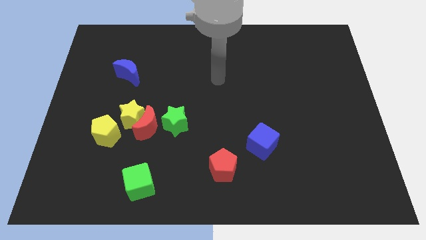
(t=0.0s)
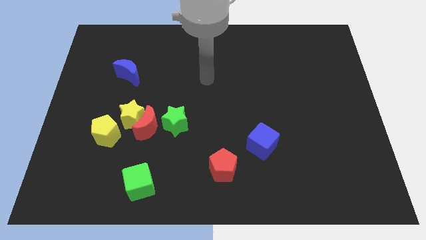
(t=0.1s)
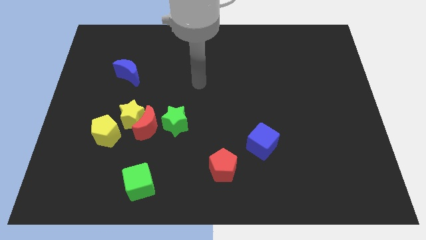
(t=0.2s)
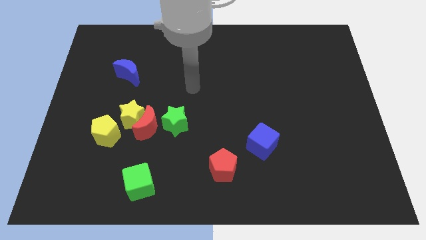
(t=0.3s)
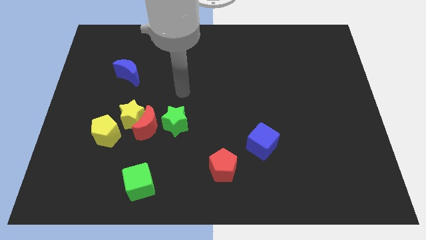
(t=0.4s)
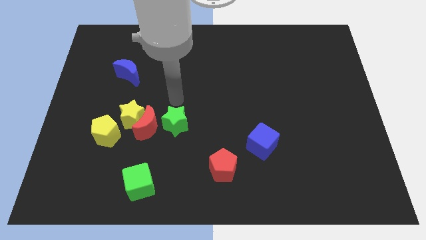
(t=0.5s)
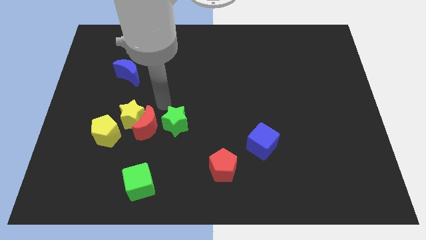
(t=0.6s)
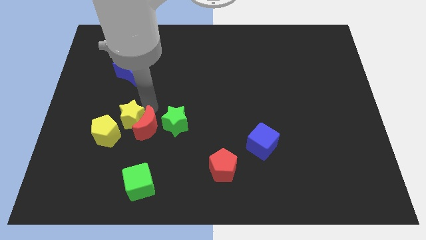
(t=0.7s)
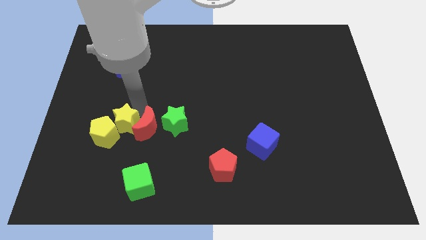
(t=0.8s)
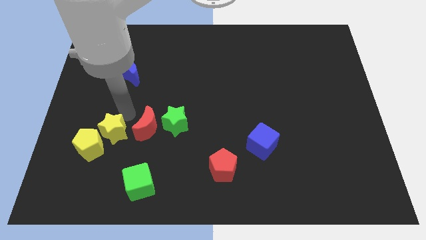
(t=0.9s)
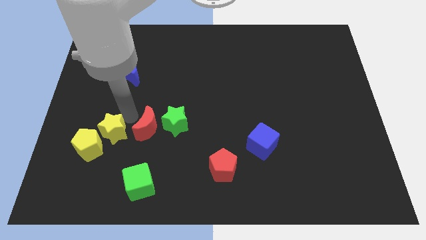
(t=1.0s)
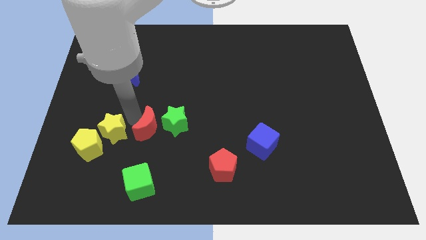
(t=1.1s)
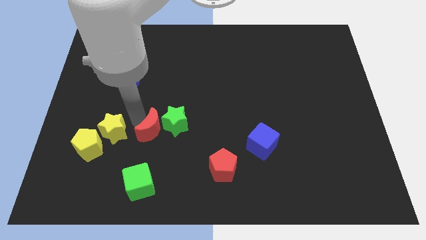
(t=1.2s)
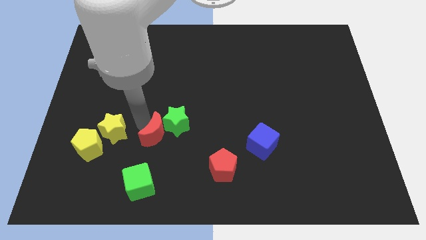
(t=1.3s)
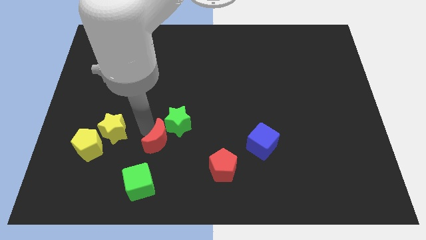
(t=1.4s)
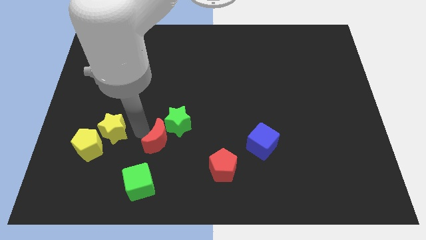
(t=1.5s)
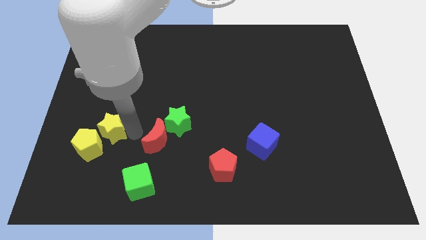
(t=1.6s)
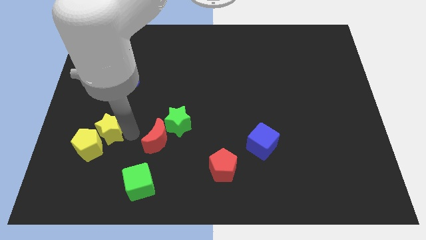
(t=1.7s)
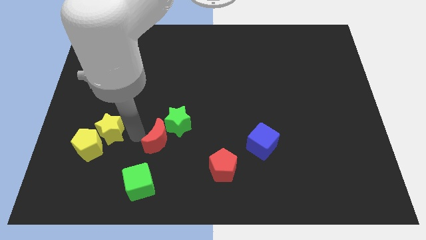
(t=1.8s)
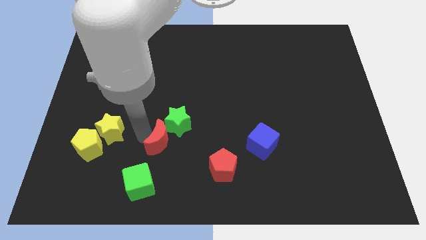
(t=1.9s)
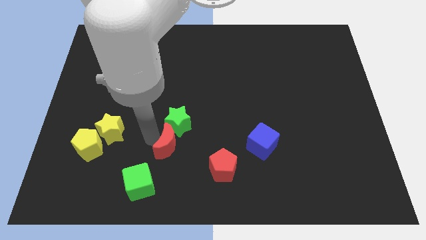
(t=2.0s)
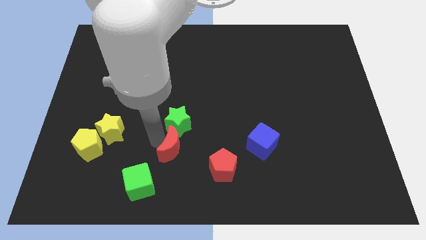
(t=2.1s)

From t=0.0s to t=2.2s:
separate the red moon from the group of blocks

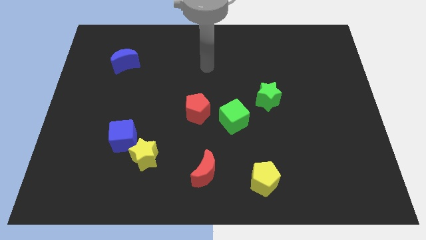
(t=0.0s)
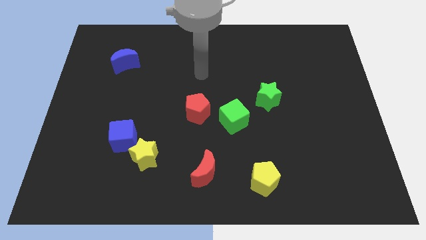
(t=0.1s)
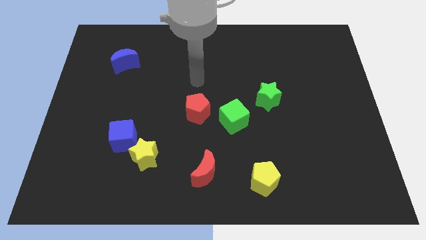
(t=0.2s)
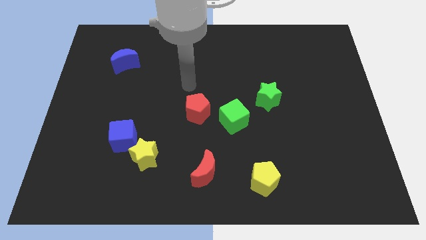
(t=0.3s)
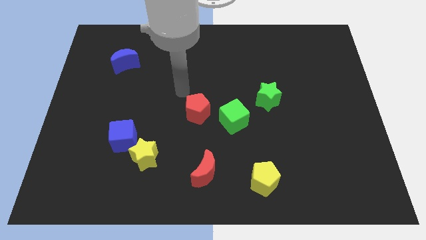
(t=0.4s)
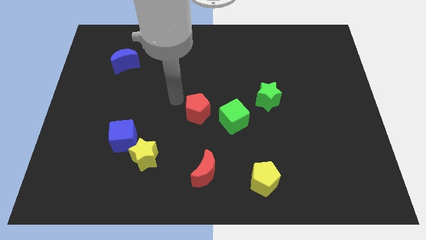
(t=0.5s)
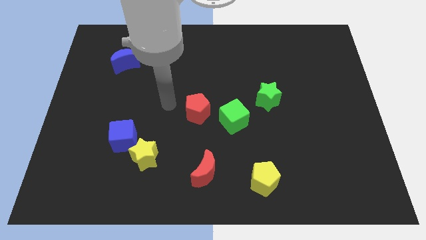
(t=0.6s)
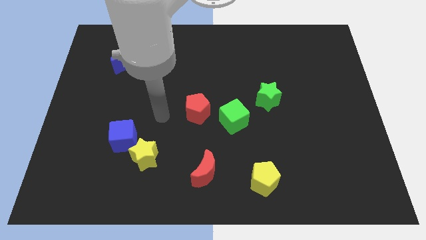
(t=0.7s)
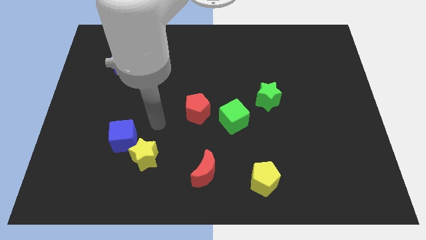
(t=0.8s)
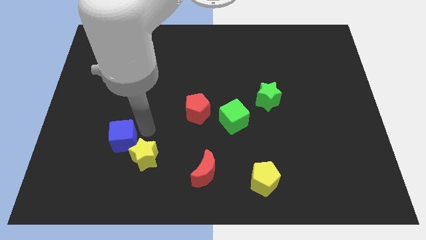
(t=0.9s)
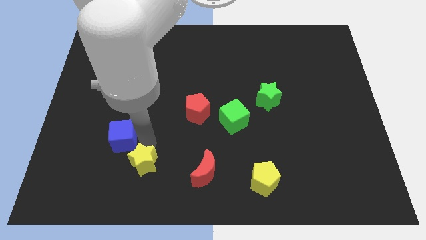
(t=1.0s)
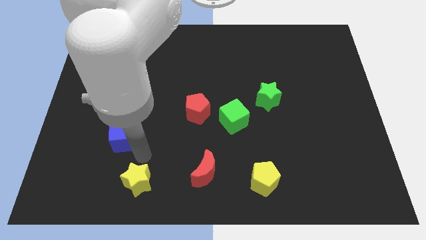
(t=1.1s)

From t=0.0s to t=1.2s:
separate the blue cube from the yellow star

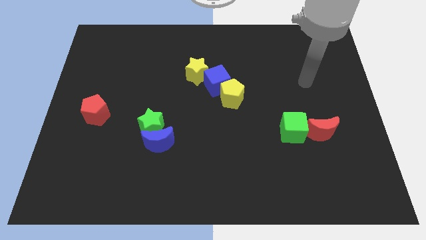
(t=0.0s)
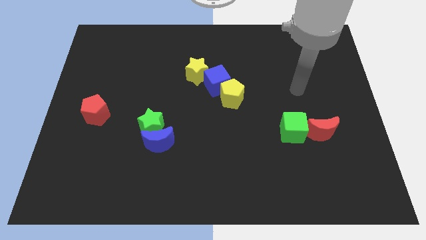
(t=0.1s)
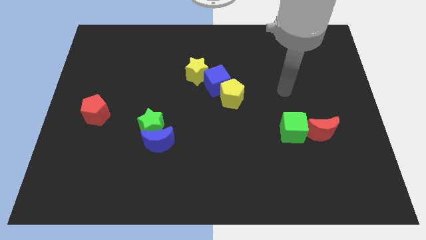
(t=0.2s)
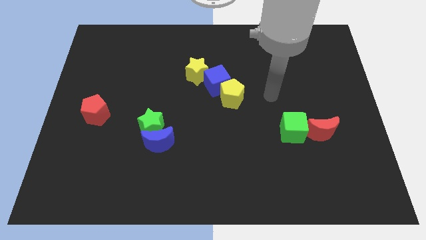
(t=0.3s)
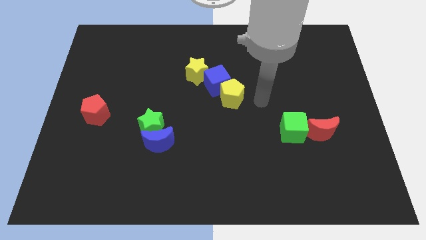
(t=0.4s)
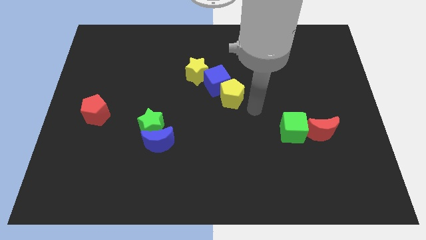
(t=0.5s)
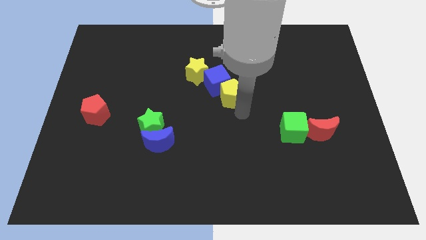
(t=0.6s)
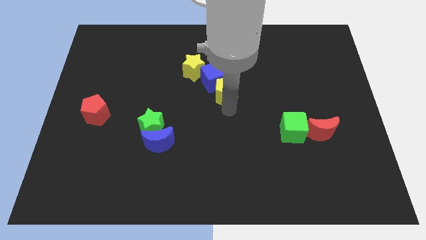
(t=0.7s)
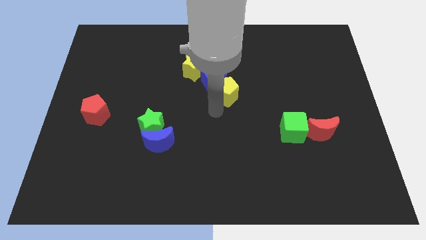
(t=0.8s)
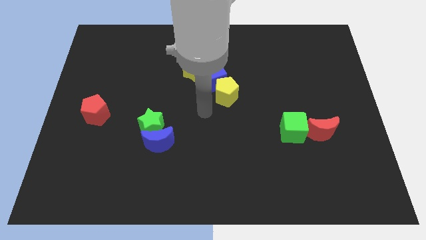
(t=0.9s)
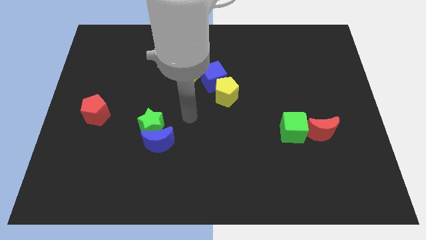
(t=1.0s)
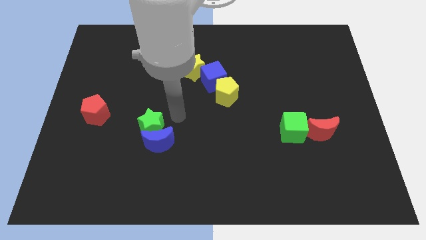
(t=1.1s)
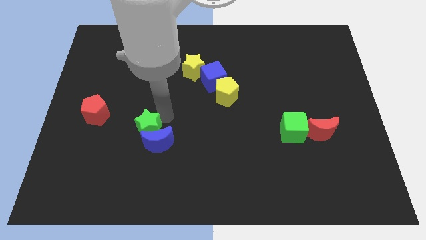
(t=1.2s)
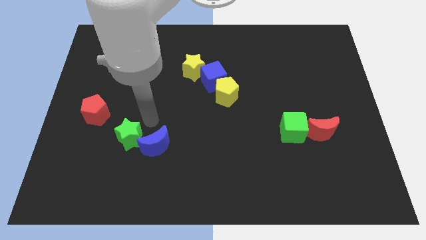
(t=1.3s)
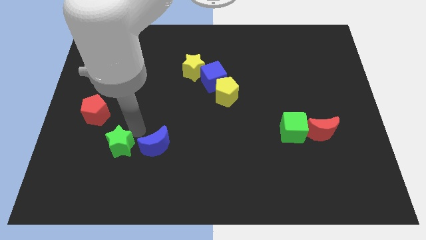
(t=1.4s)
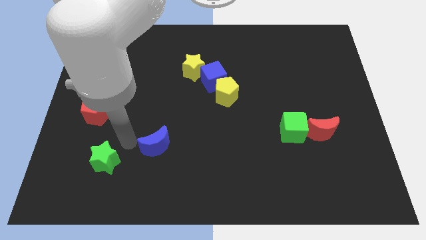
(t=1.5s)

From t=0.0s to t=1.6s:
separate the blue moon from the green star

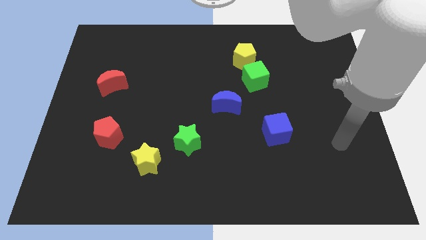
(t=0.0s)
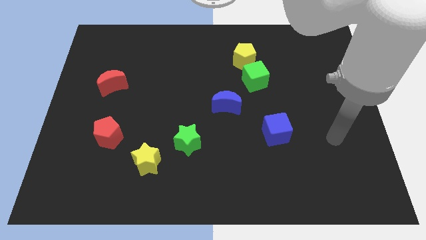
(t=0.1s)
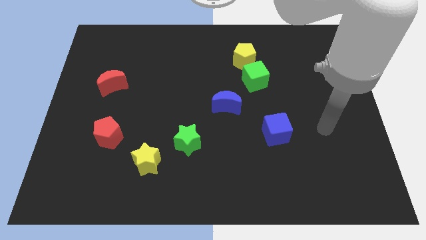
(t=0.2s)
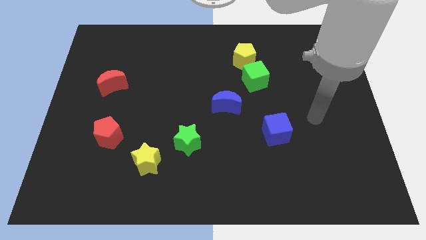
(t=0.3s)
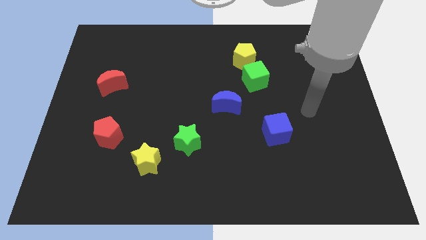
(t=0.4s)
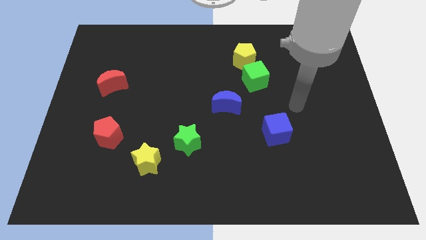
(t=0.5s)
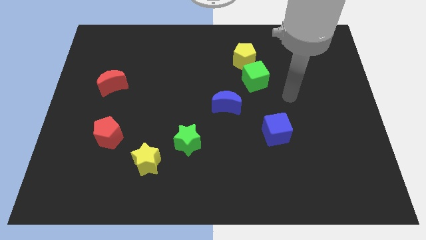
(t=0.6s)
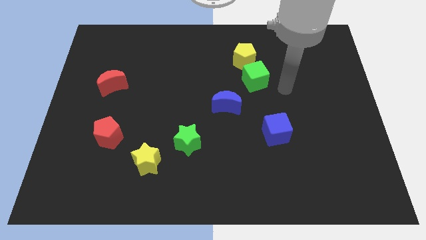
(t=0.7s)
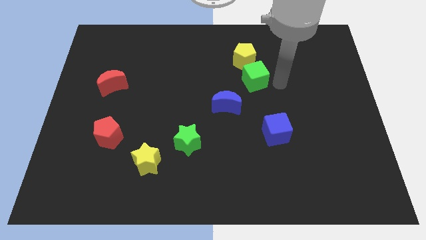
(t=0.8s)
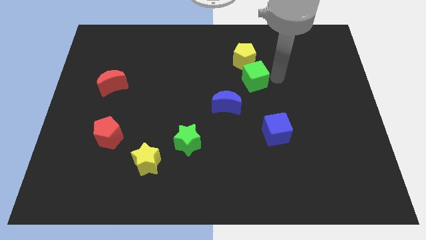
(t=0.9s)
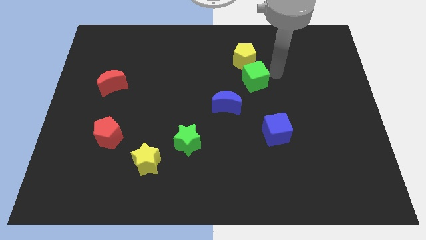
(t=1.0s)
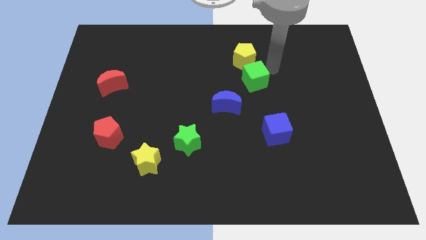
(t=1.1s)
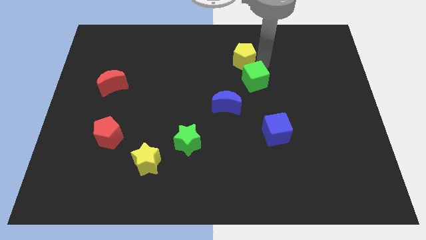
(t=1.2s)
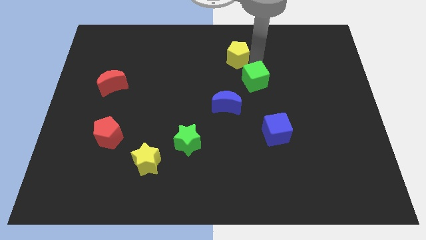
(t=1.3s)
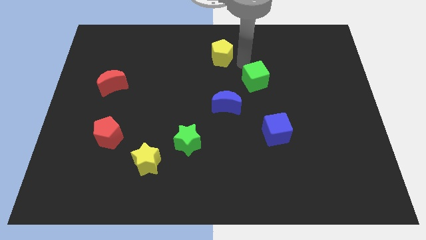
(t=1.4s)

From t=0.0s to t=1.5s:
pull the green cube apart from the yellow pentagon

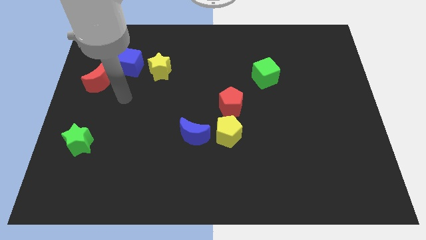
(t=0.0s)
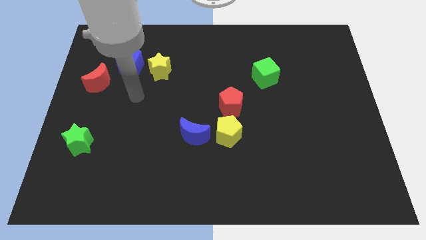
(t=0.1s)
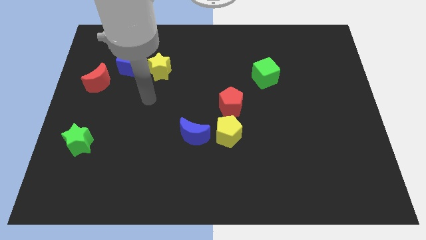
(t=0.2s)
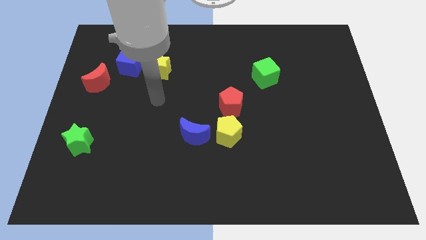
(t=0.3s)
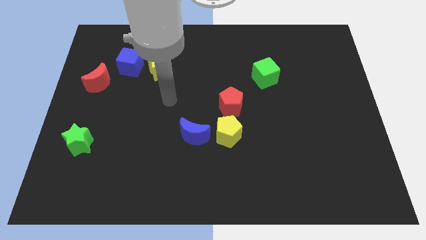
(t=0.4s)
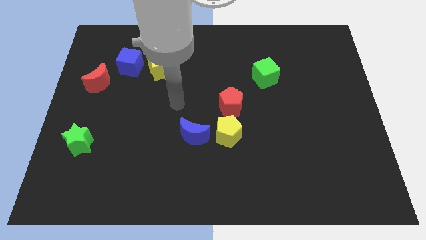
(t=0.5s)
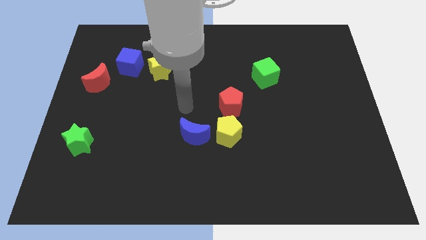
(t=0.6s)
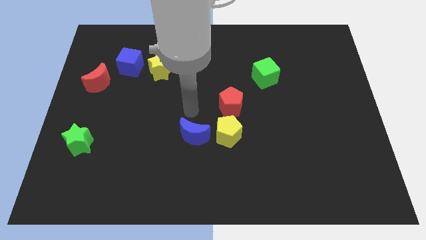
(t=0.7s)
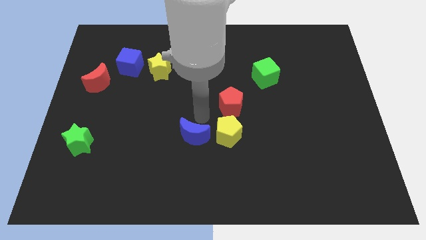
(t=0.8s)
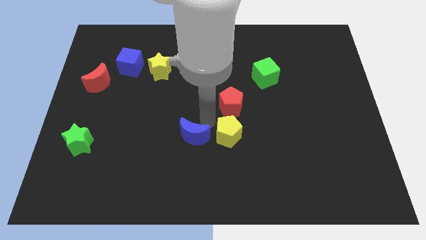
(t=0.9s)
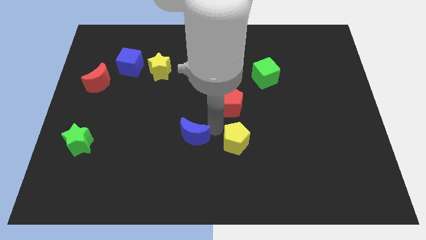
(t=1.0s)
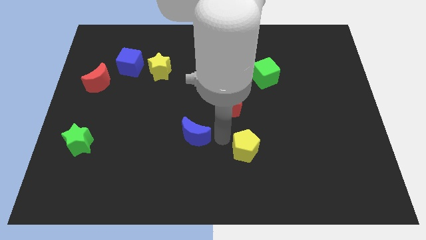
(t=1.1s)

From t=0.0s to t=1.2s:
move the blue moon away from the yellow pentagon

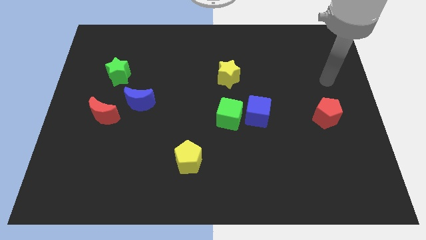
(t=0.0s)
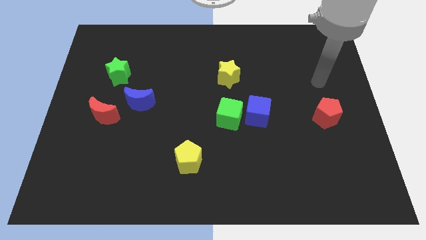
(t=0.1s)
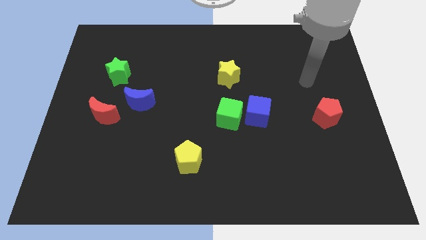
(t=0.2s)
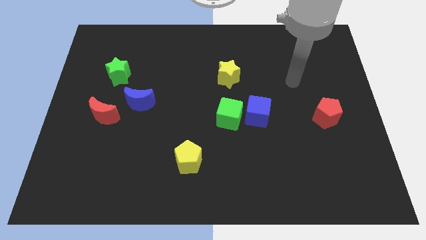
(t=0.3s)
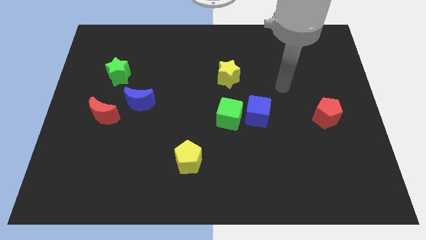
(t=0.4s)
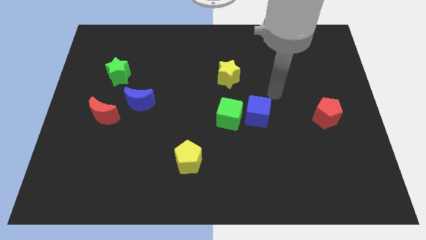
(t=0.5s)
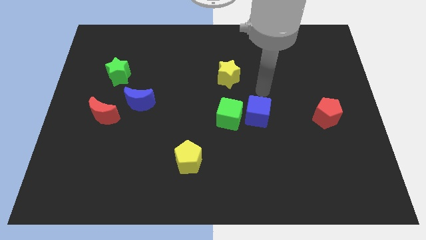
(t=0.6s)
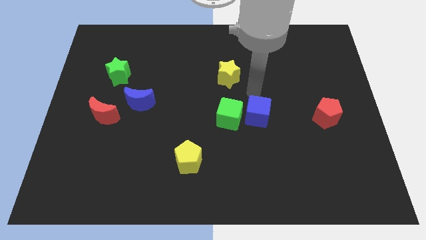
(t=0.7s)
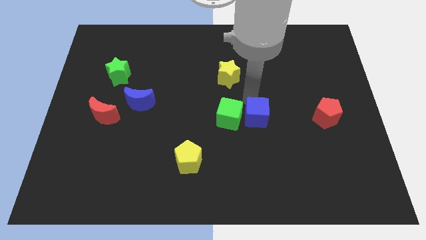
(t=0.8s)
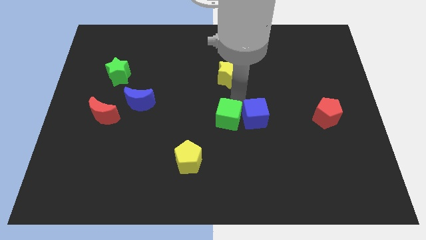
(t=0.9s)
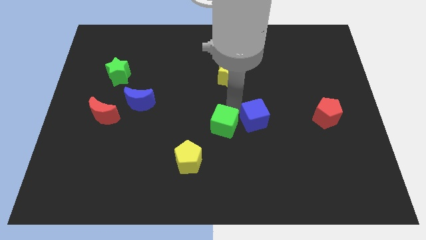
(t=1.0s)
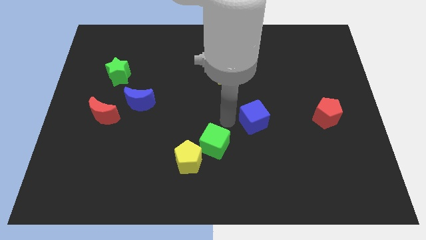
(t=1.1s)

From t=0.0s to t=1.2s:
pull the blue cube apart from the green cube

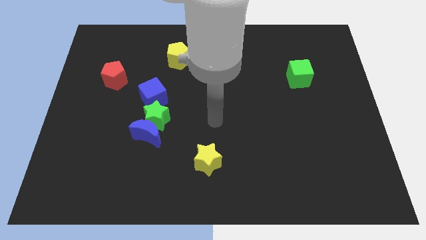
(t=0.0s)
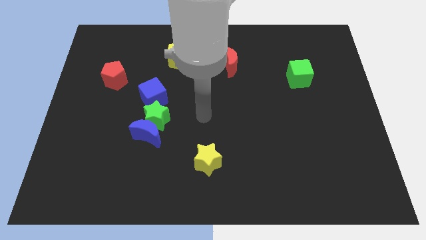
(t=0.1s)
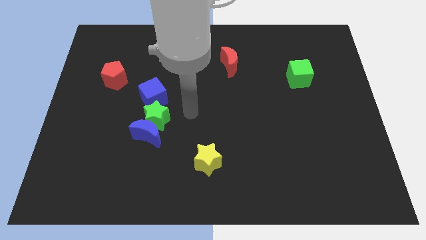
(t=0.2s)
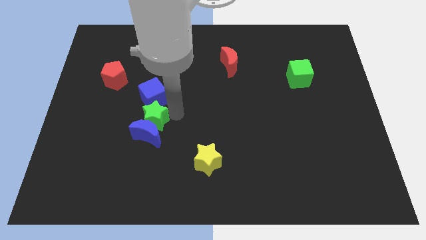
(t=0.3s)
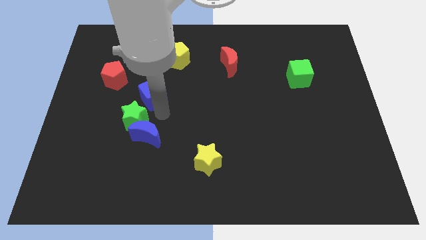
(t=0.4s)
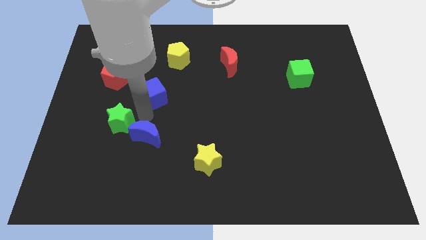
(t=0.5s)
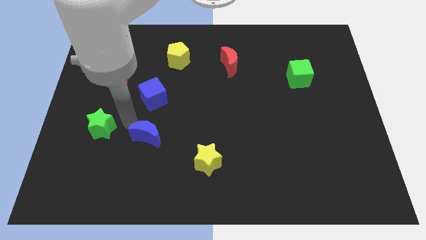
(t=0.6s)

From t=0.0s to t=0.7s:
move the blue moon away from the green star
